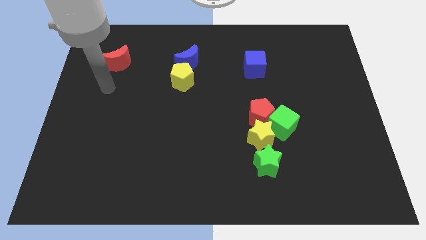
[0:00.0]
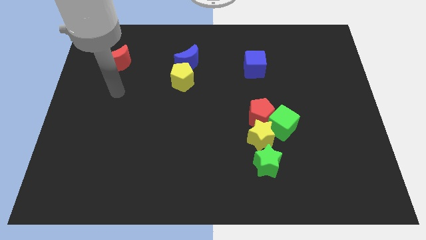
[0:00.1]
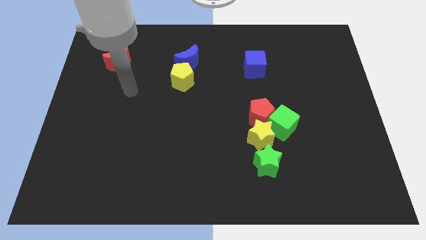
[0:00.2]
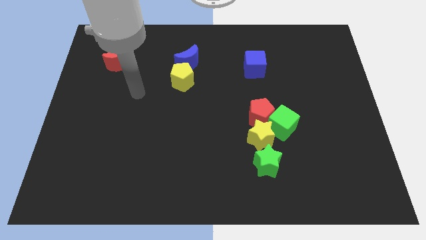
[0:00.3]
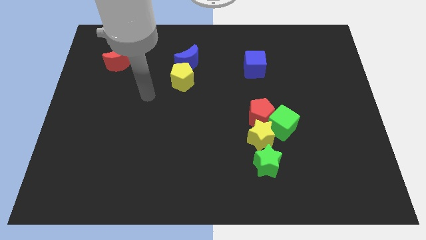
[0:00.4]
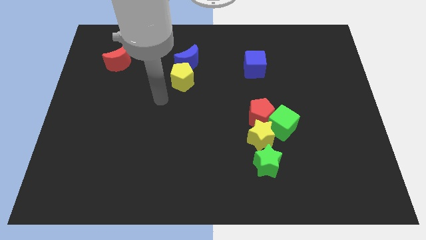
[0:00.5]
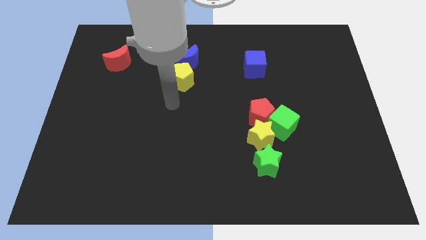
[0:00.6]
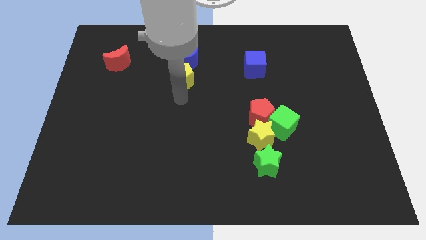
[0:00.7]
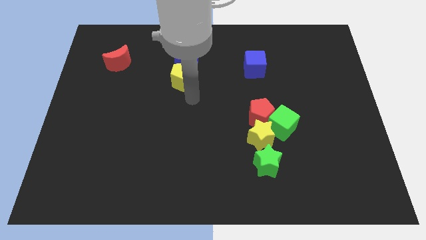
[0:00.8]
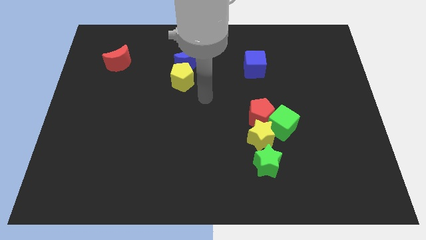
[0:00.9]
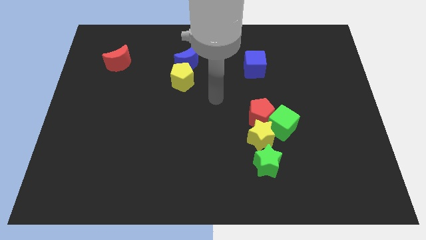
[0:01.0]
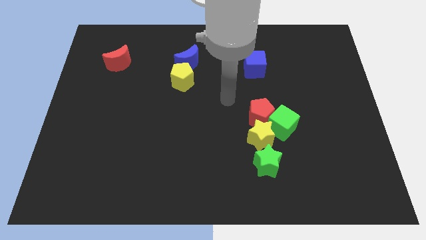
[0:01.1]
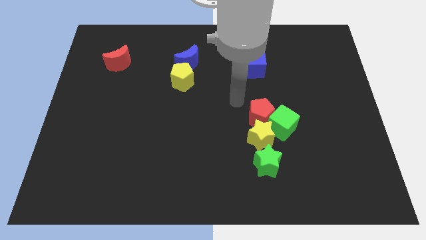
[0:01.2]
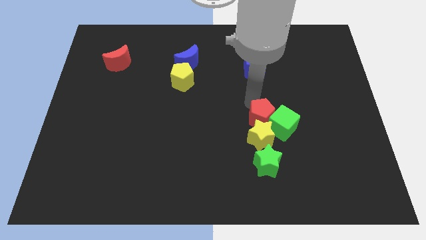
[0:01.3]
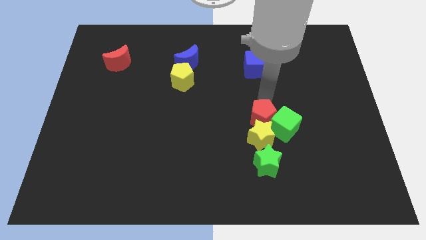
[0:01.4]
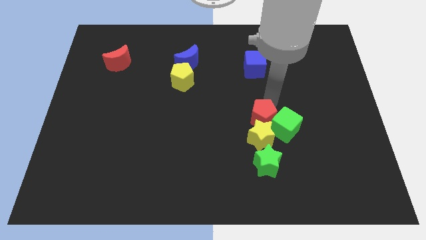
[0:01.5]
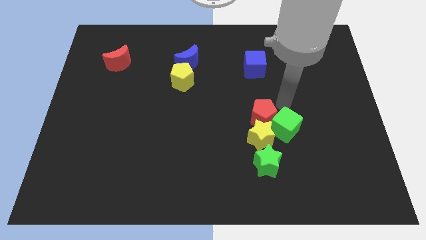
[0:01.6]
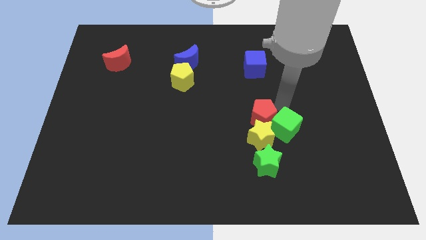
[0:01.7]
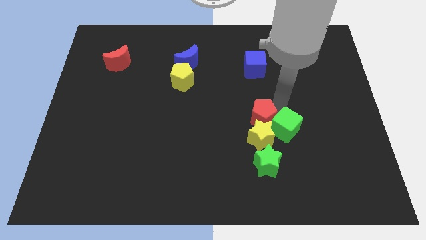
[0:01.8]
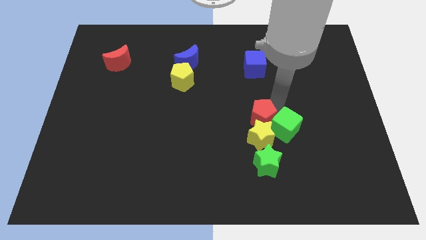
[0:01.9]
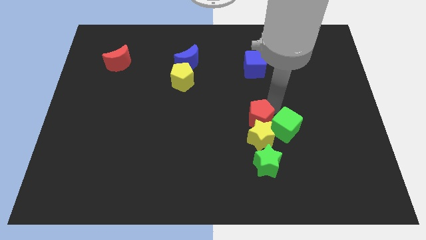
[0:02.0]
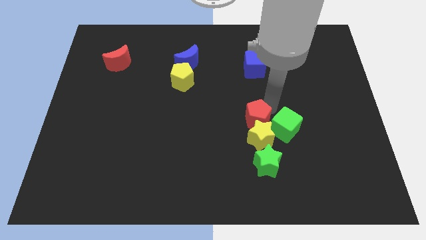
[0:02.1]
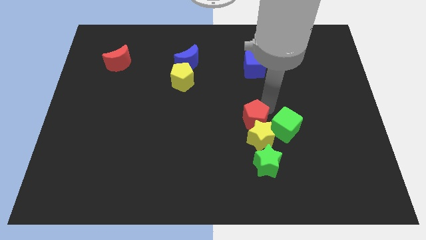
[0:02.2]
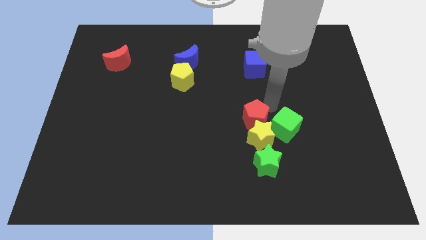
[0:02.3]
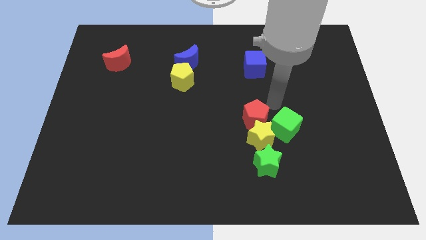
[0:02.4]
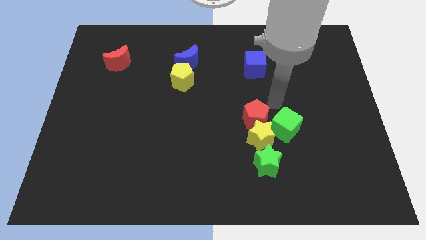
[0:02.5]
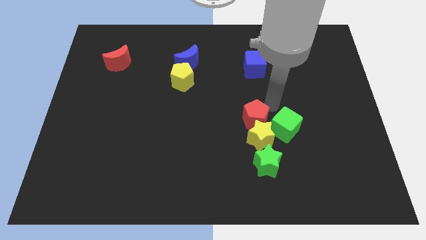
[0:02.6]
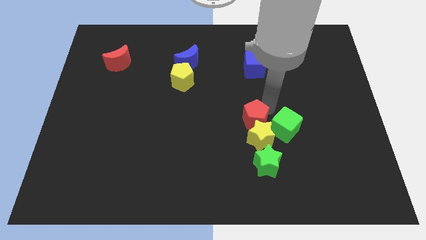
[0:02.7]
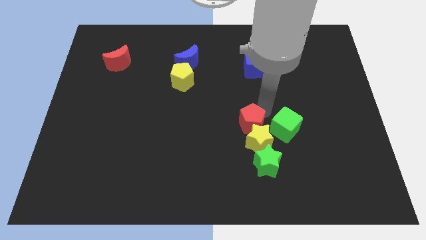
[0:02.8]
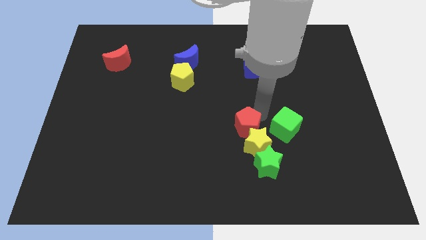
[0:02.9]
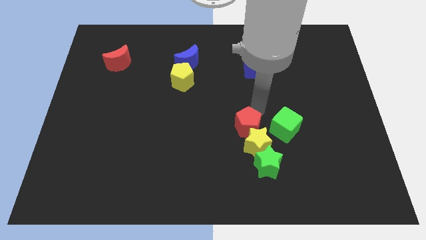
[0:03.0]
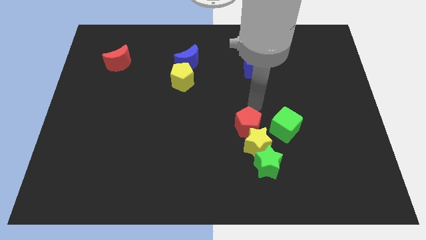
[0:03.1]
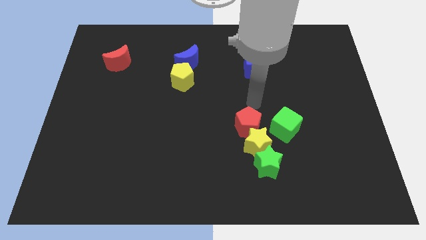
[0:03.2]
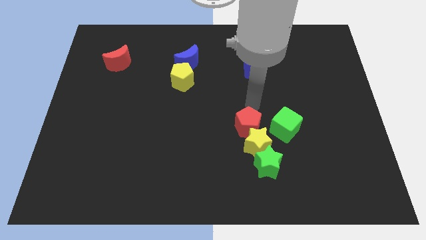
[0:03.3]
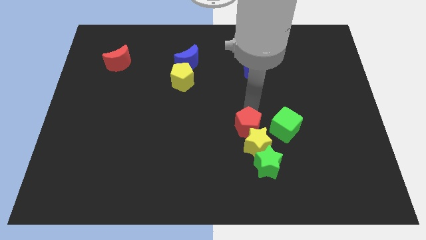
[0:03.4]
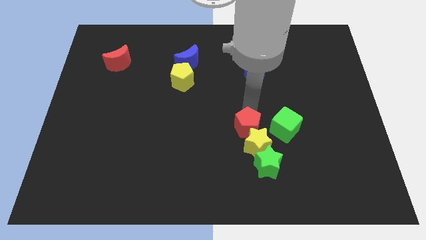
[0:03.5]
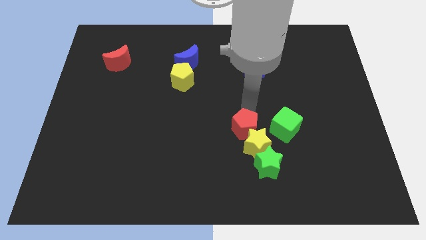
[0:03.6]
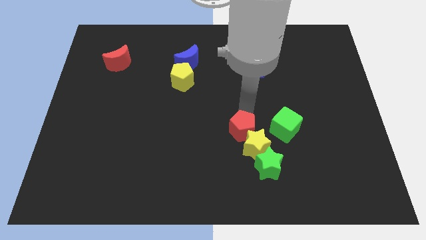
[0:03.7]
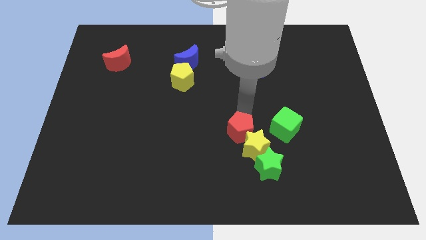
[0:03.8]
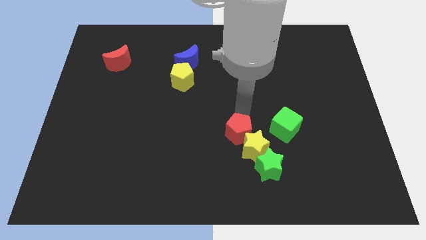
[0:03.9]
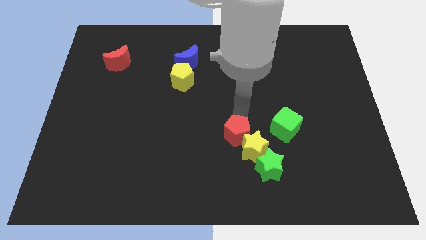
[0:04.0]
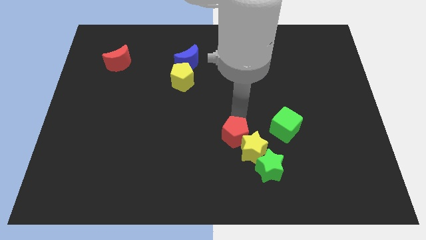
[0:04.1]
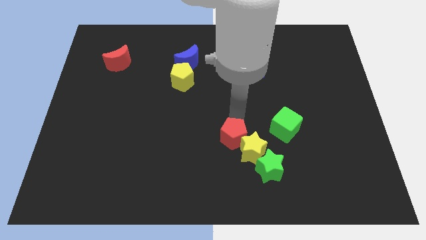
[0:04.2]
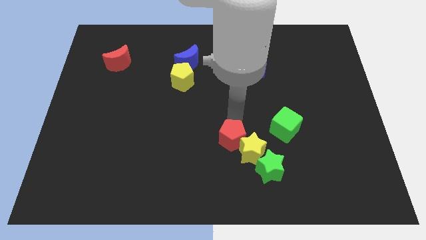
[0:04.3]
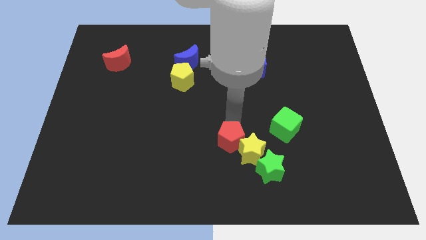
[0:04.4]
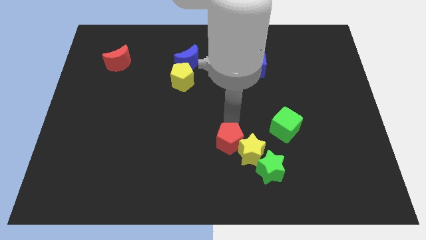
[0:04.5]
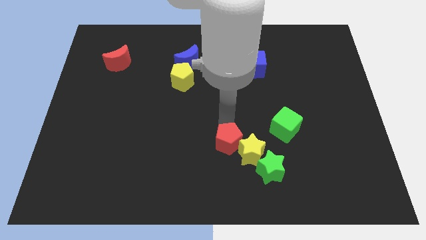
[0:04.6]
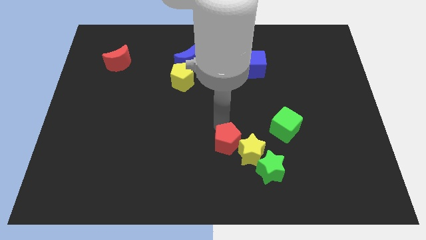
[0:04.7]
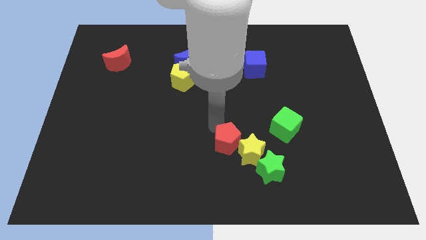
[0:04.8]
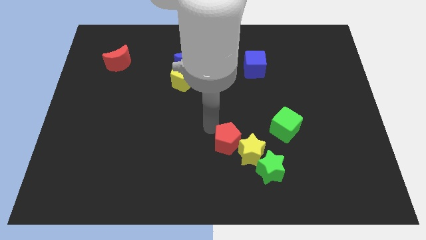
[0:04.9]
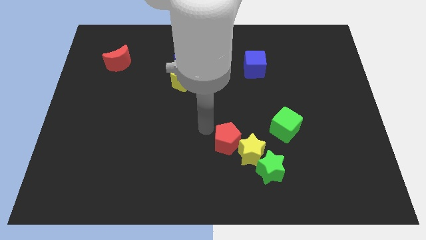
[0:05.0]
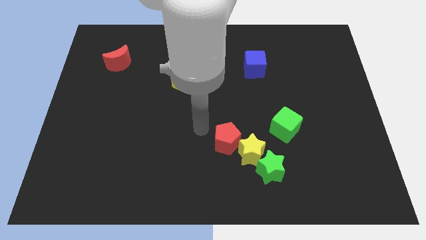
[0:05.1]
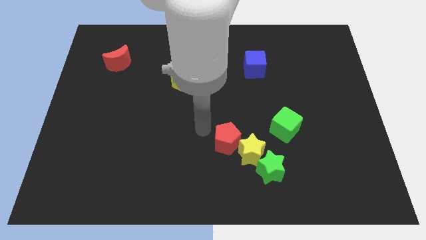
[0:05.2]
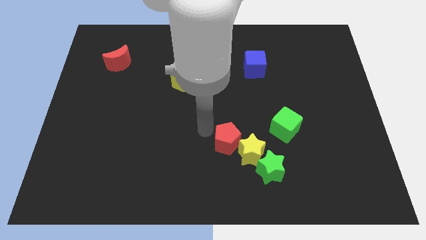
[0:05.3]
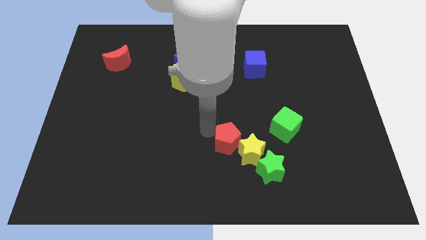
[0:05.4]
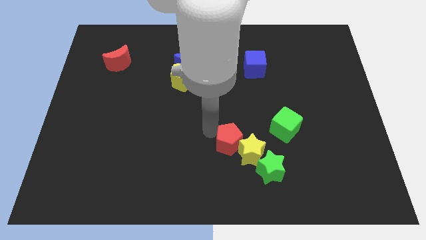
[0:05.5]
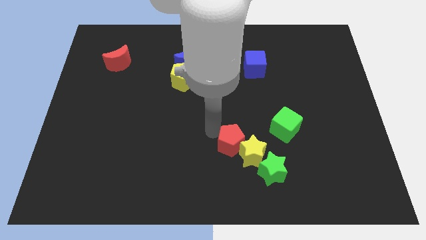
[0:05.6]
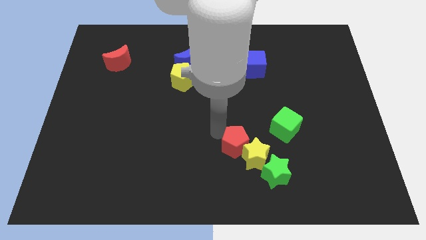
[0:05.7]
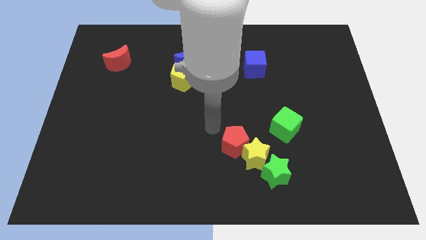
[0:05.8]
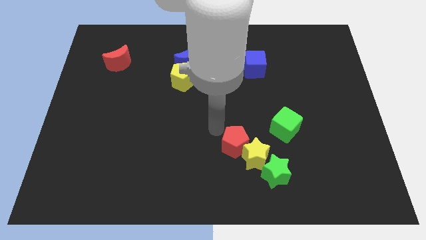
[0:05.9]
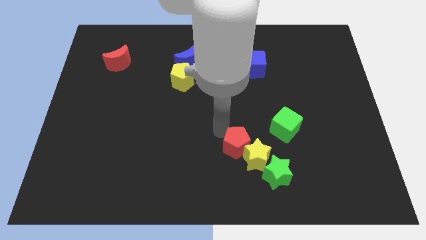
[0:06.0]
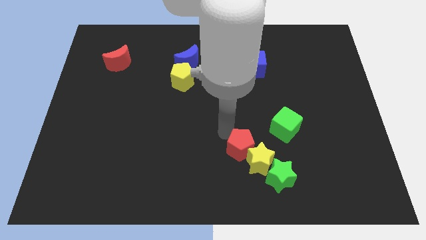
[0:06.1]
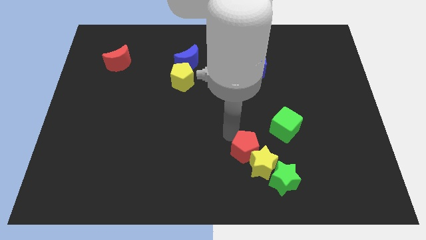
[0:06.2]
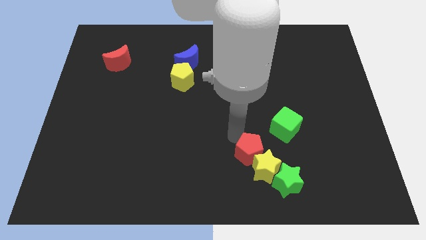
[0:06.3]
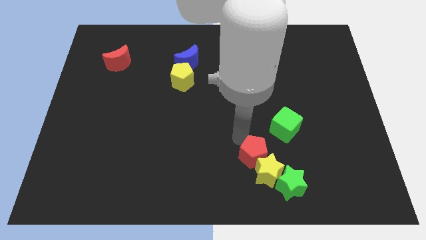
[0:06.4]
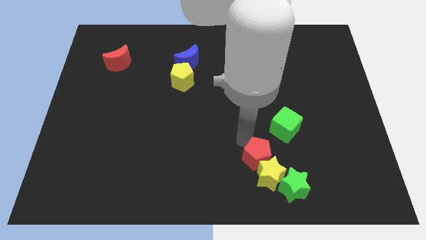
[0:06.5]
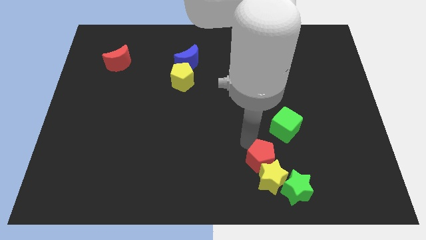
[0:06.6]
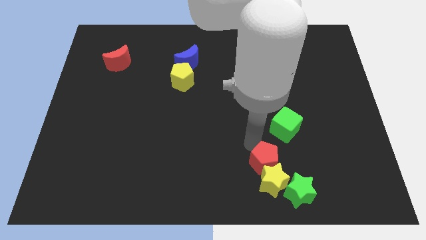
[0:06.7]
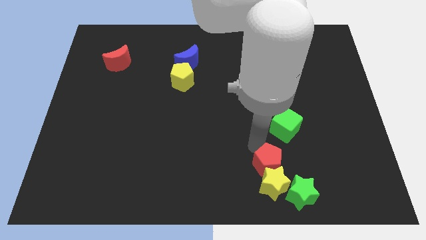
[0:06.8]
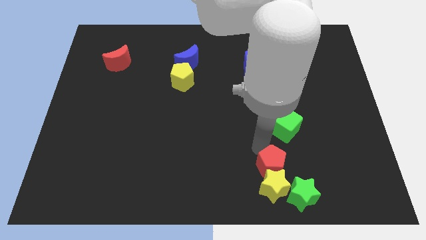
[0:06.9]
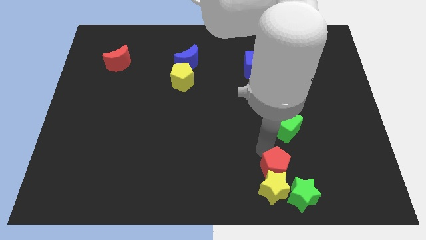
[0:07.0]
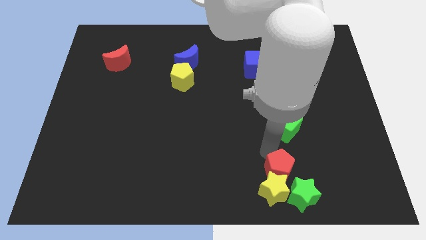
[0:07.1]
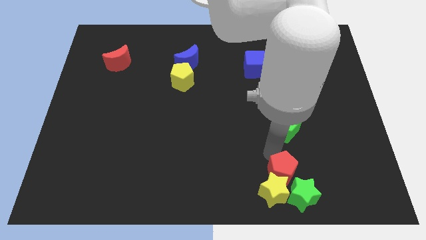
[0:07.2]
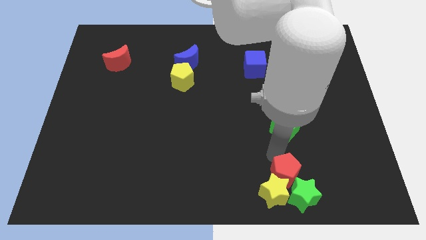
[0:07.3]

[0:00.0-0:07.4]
put the red pentagon next to the green star
